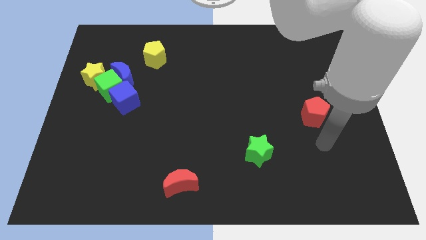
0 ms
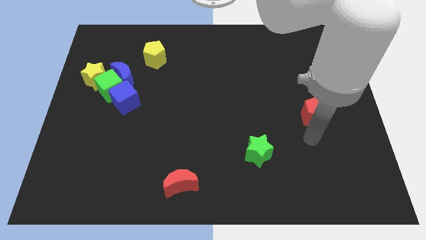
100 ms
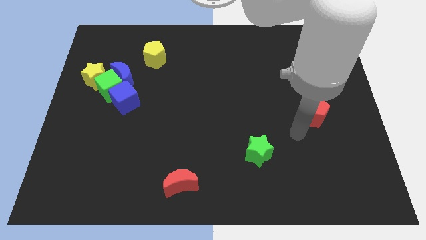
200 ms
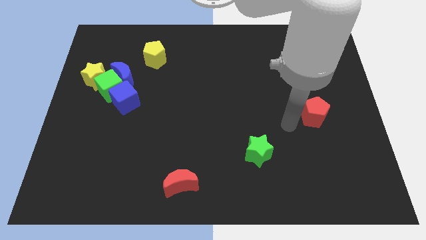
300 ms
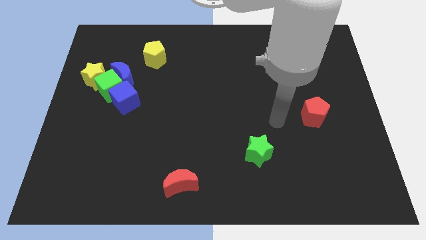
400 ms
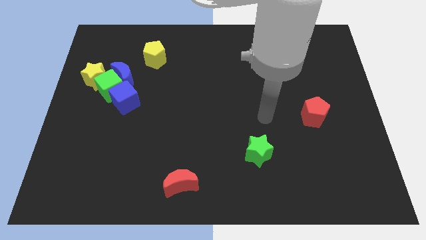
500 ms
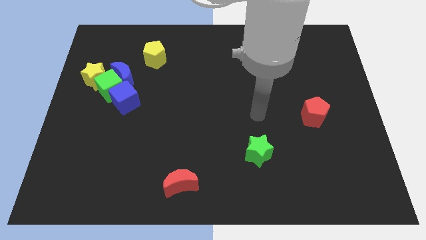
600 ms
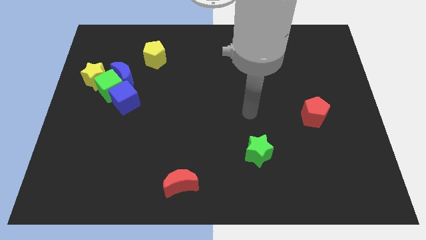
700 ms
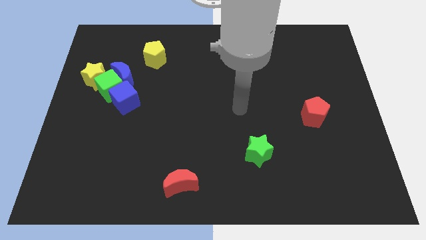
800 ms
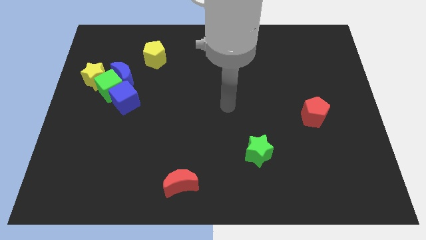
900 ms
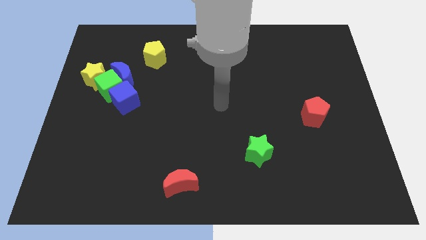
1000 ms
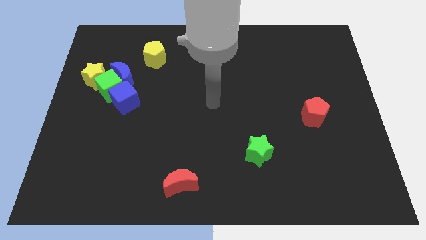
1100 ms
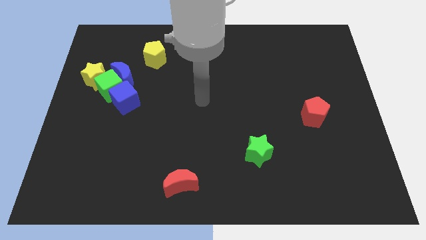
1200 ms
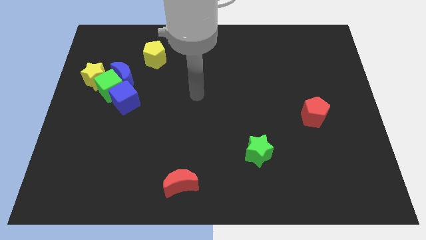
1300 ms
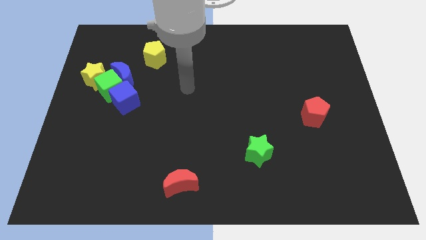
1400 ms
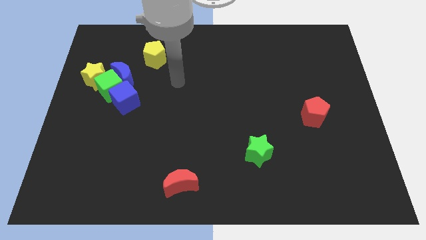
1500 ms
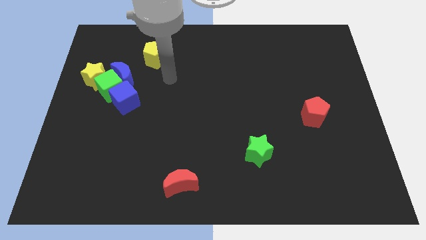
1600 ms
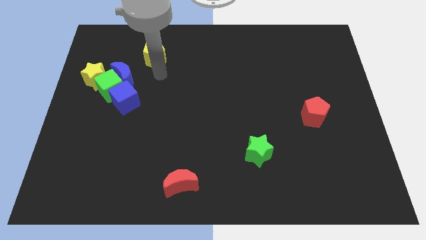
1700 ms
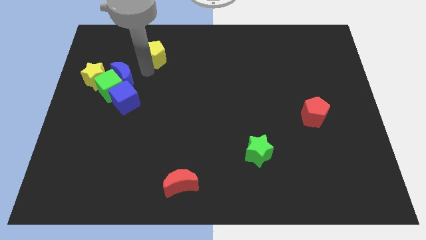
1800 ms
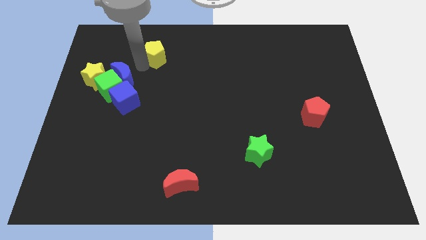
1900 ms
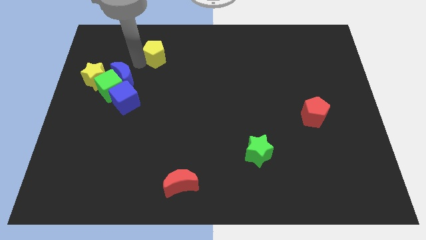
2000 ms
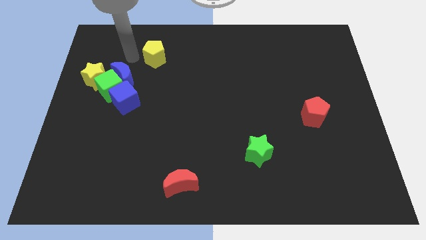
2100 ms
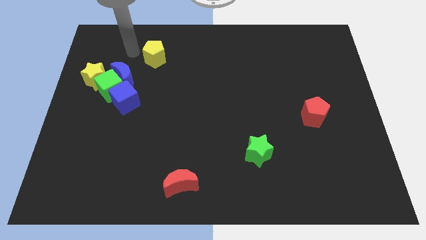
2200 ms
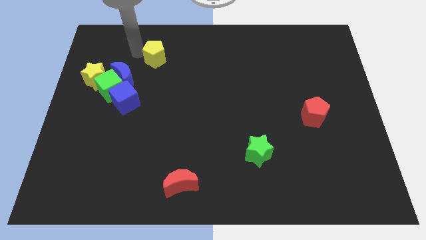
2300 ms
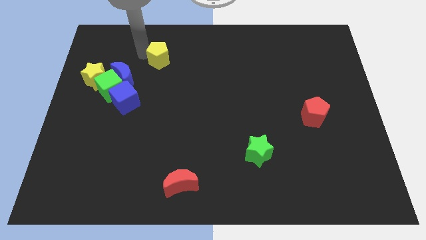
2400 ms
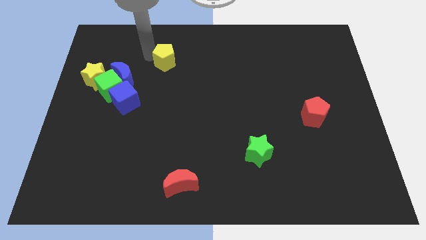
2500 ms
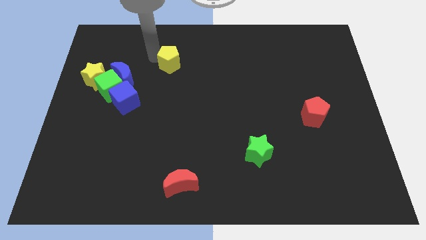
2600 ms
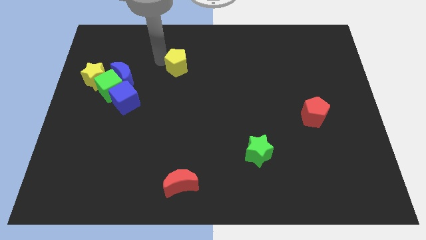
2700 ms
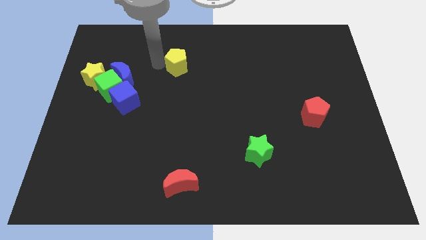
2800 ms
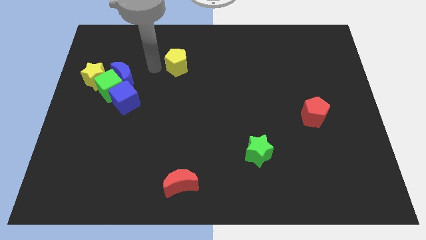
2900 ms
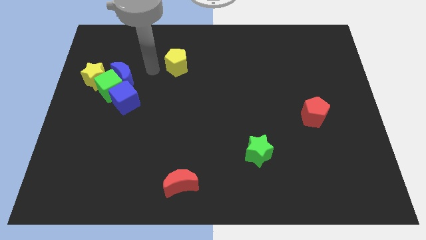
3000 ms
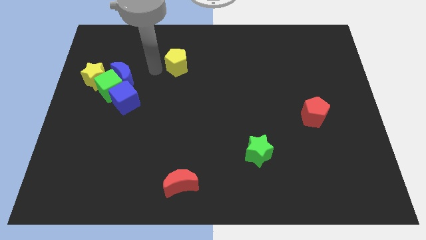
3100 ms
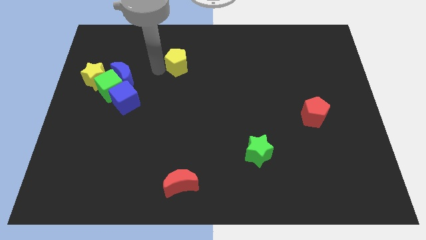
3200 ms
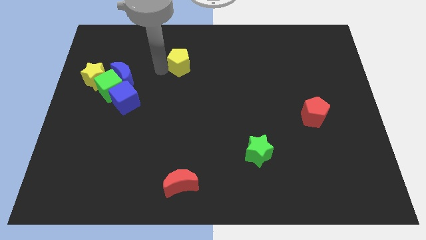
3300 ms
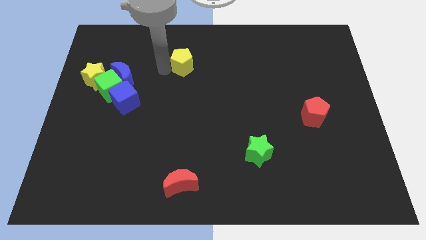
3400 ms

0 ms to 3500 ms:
move the yellow pentagon a little right

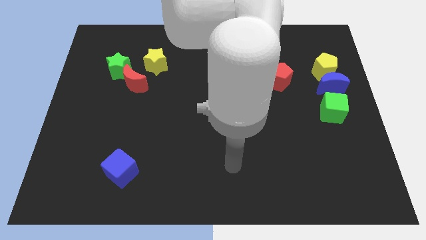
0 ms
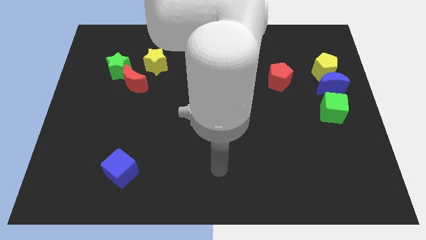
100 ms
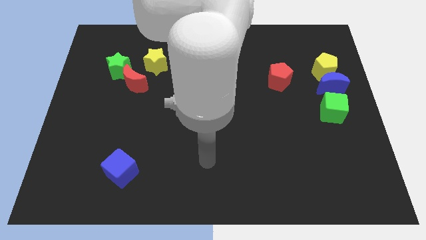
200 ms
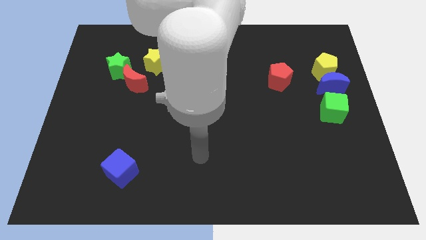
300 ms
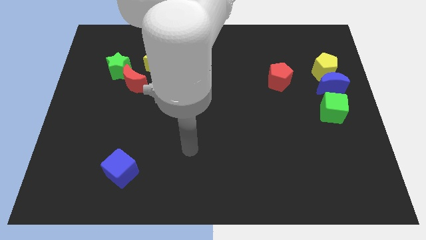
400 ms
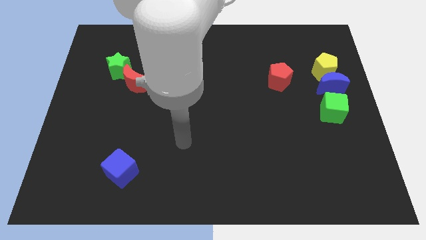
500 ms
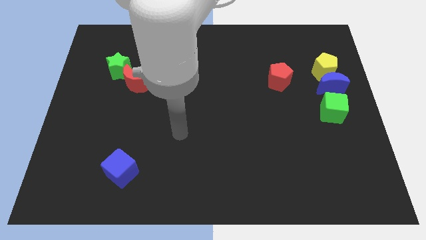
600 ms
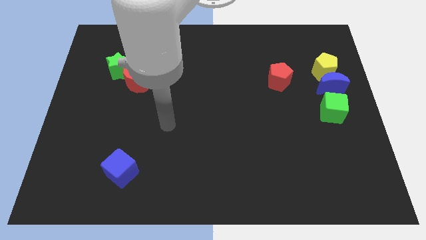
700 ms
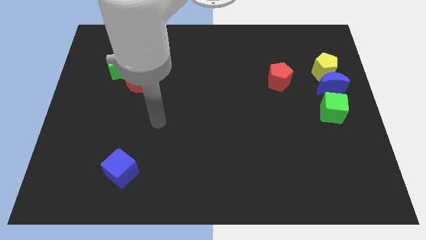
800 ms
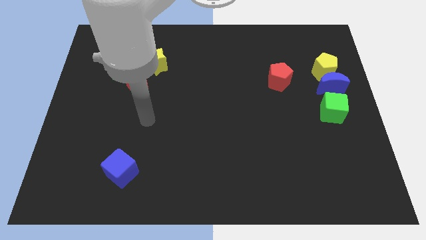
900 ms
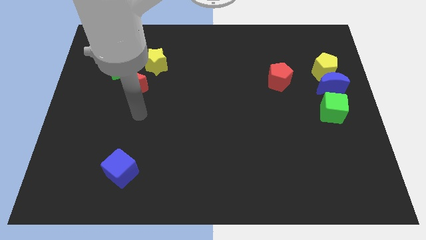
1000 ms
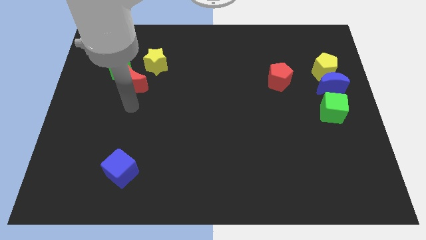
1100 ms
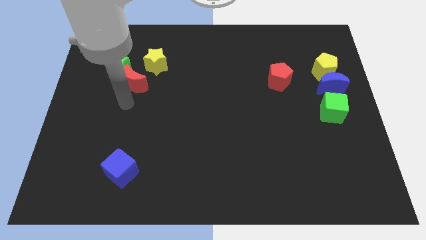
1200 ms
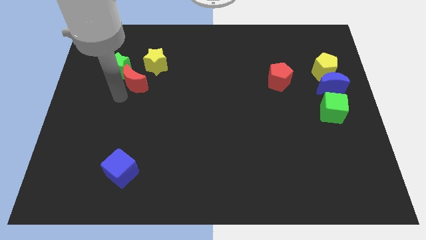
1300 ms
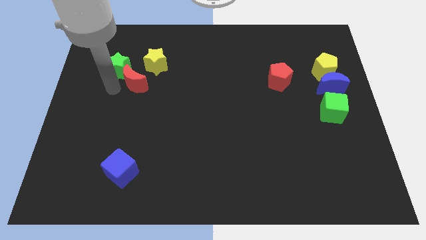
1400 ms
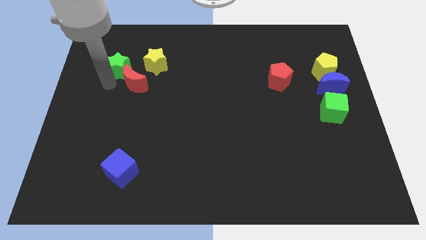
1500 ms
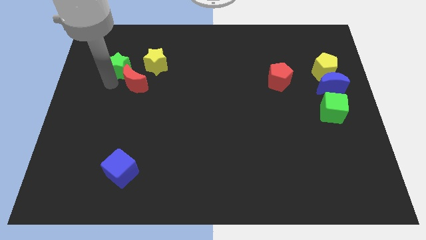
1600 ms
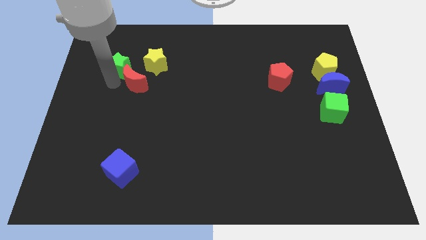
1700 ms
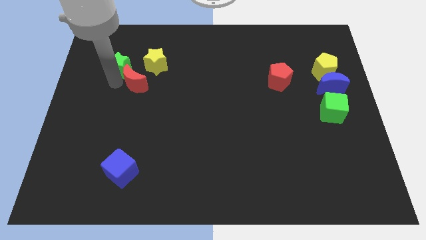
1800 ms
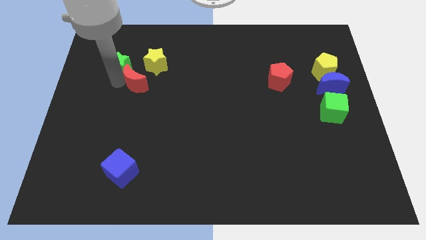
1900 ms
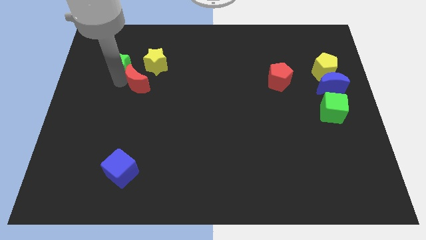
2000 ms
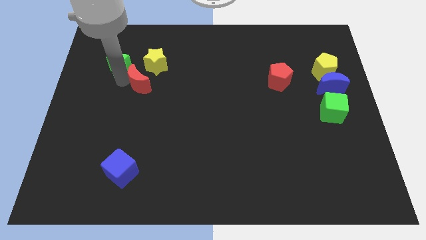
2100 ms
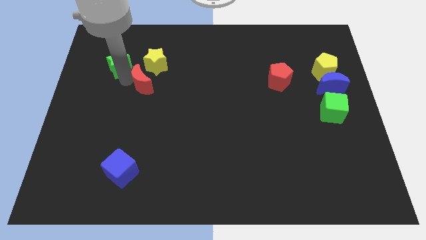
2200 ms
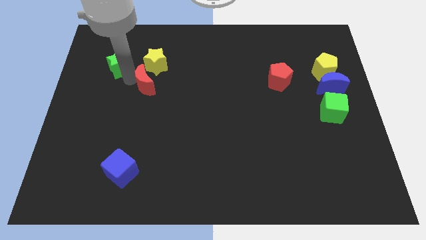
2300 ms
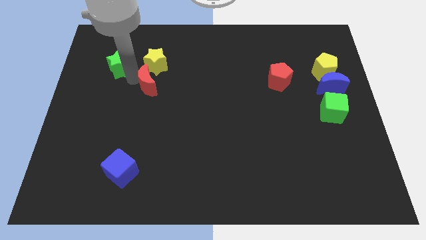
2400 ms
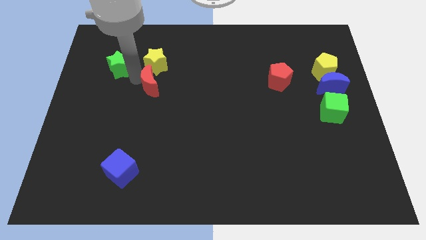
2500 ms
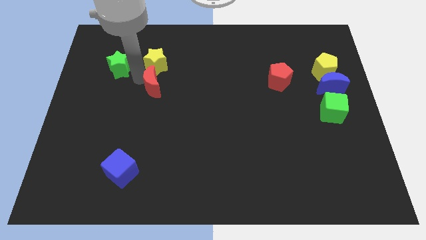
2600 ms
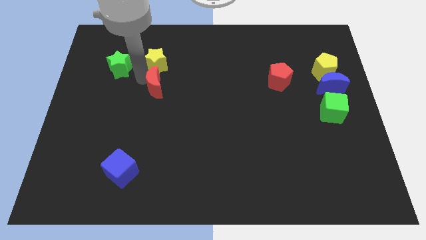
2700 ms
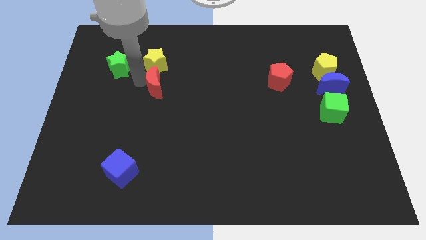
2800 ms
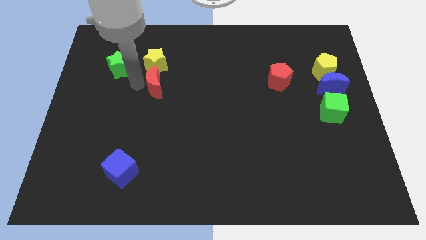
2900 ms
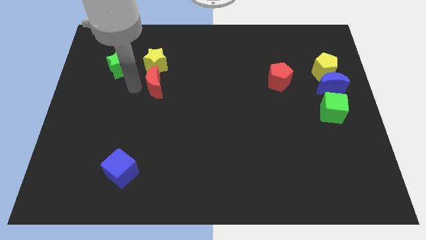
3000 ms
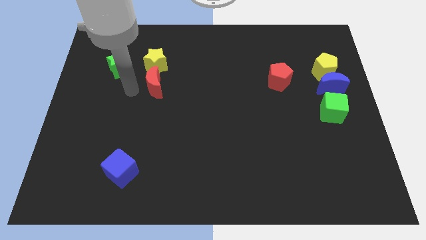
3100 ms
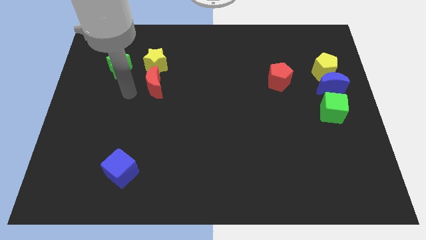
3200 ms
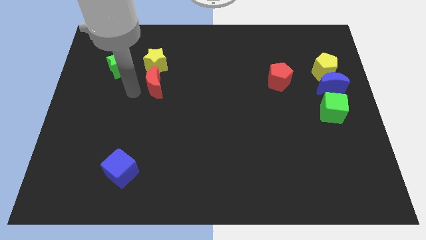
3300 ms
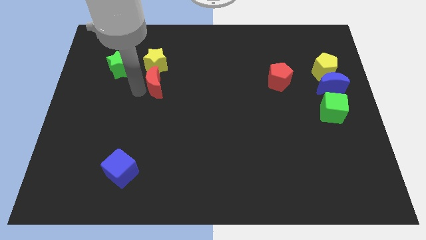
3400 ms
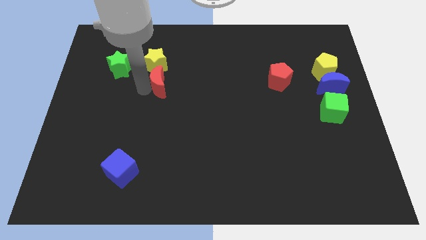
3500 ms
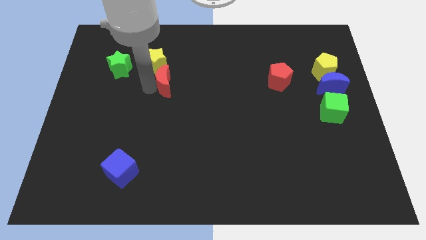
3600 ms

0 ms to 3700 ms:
slide the red moon right a little

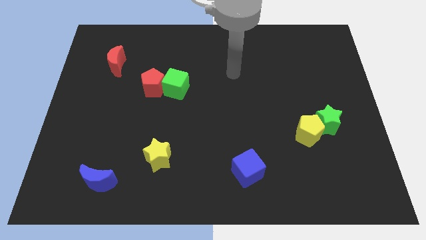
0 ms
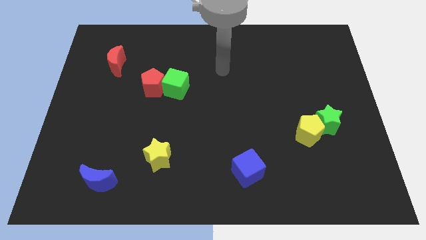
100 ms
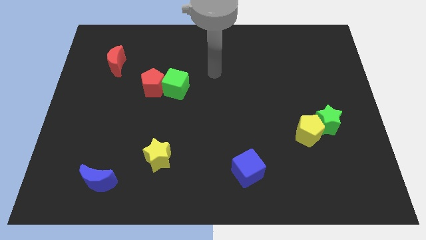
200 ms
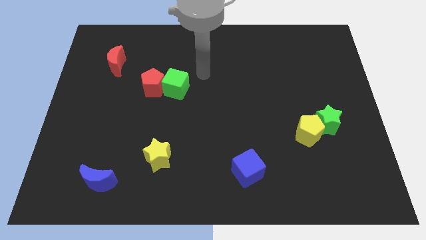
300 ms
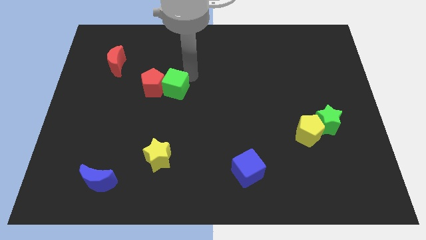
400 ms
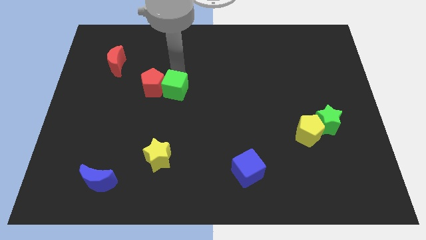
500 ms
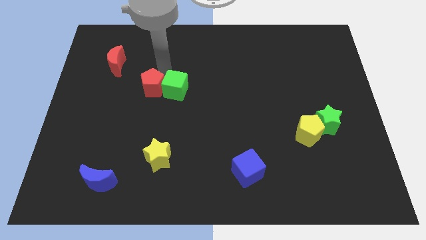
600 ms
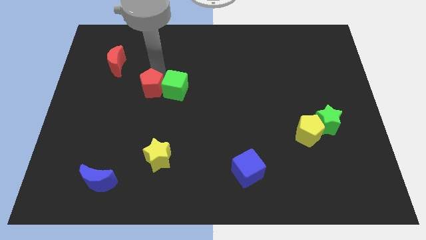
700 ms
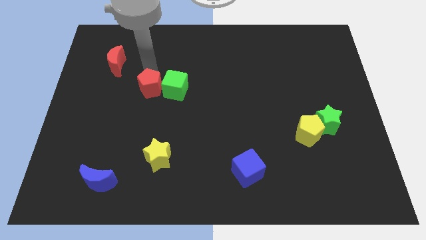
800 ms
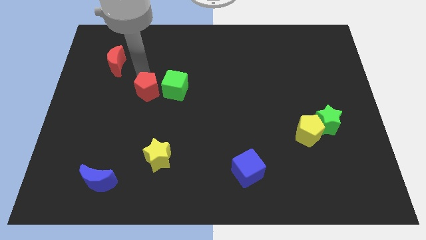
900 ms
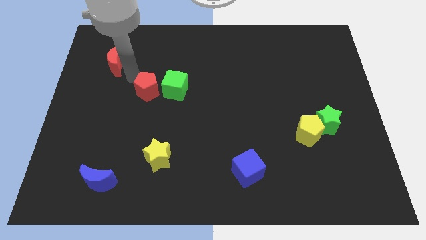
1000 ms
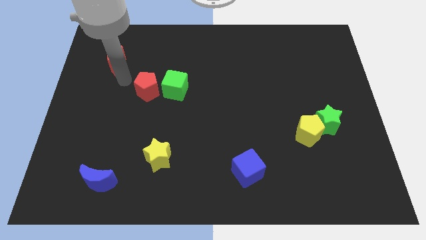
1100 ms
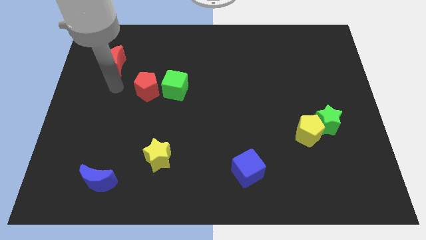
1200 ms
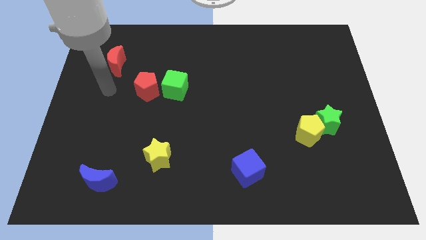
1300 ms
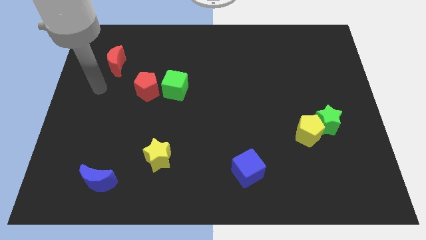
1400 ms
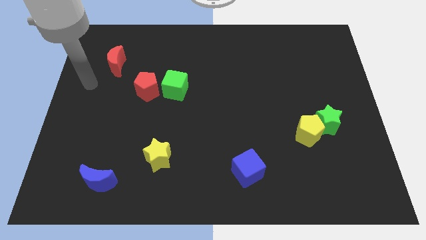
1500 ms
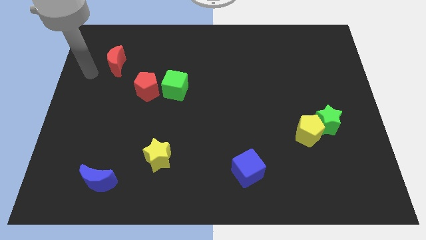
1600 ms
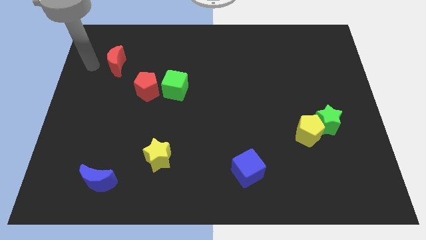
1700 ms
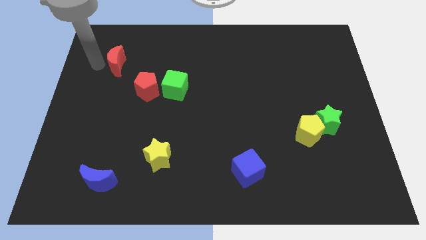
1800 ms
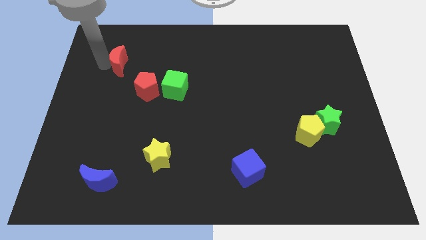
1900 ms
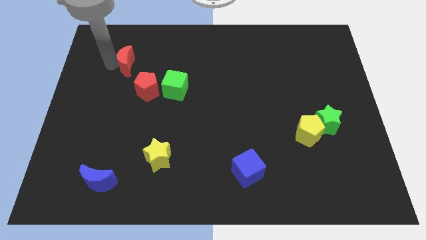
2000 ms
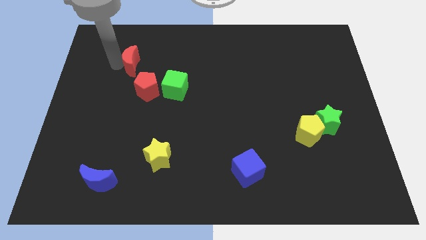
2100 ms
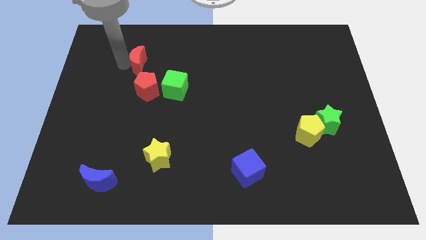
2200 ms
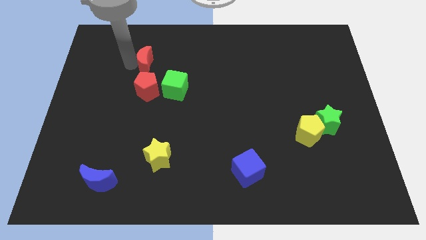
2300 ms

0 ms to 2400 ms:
slightly slide the red moon right
